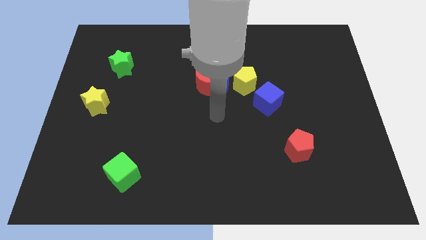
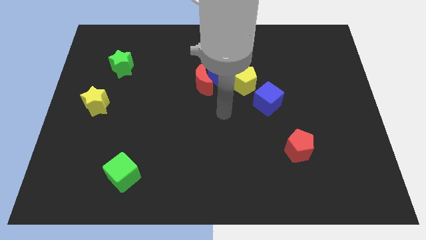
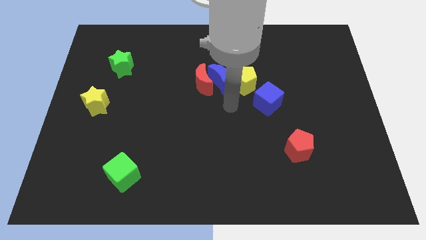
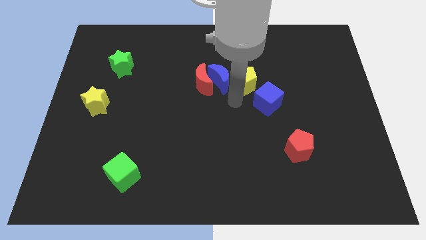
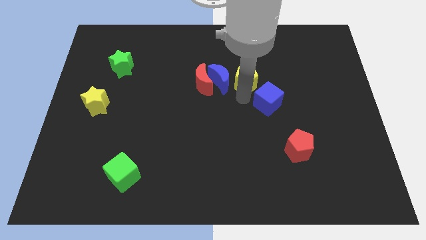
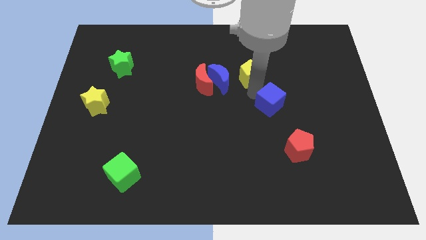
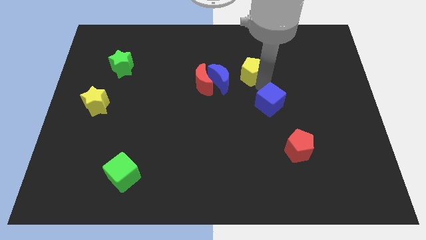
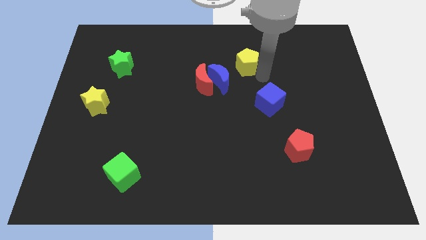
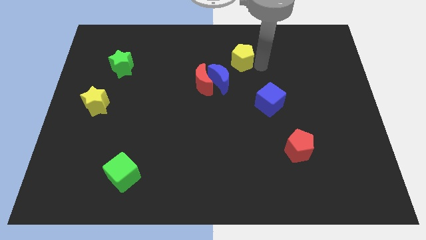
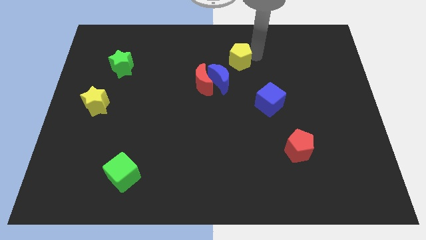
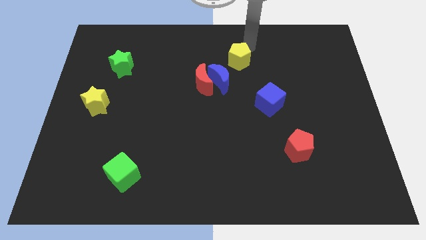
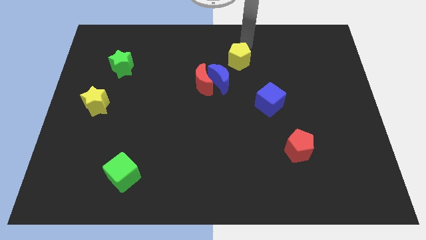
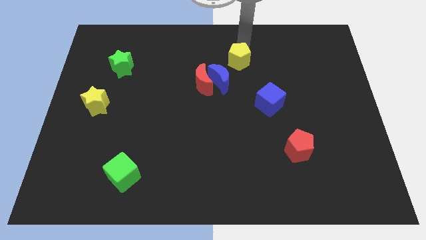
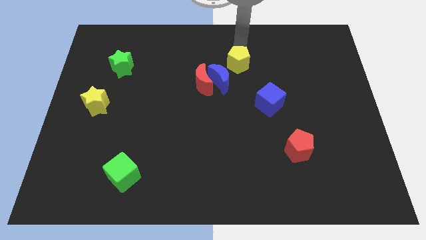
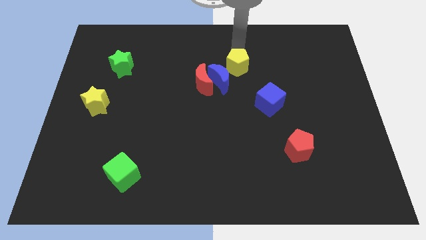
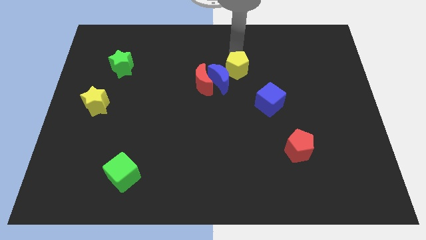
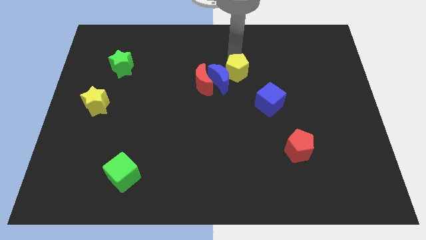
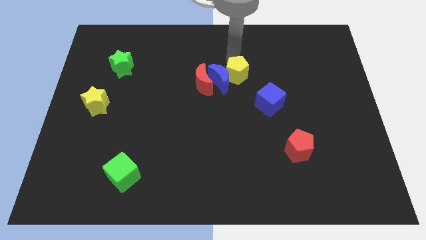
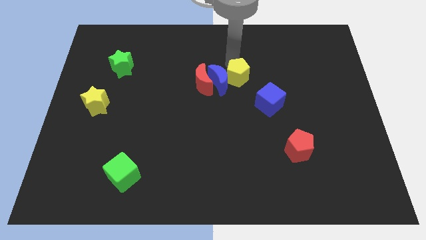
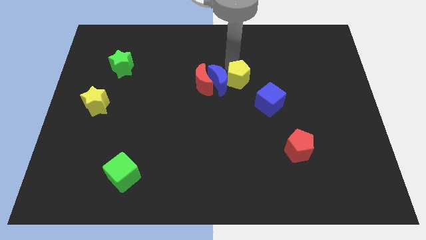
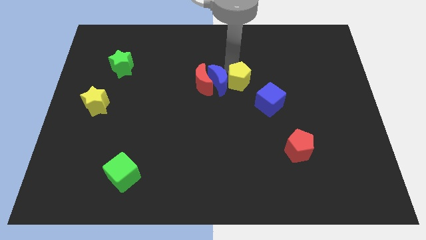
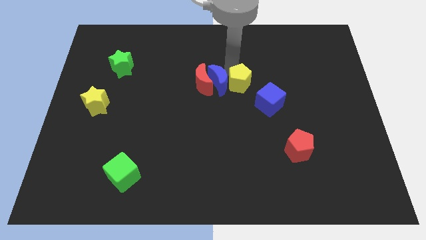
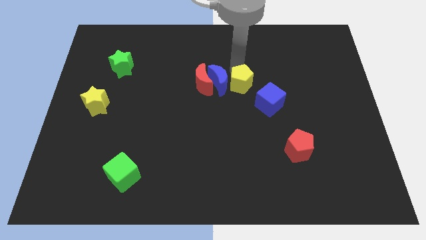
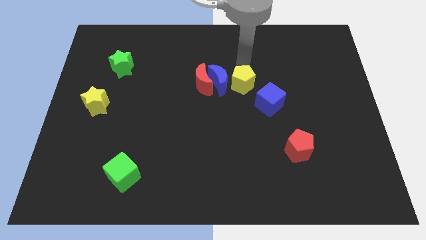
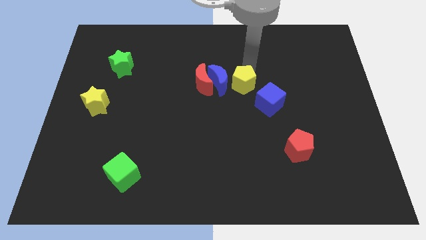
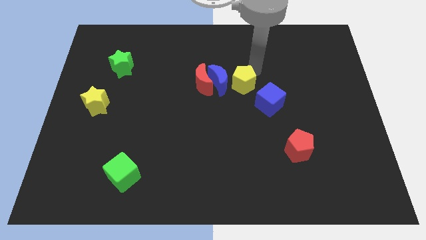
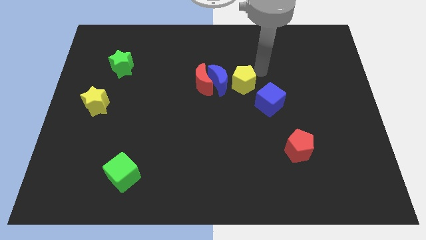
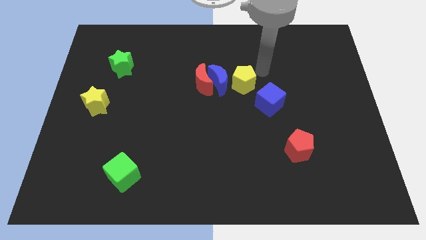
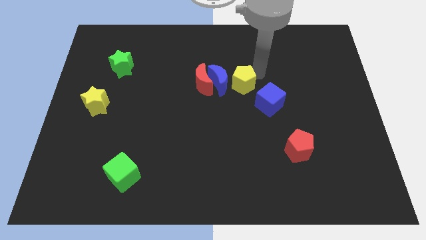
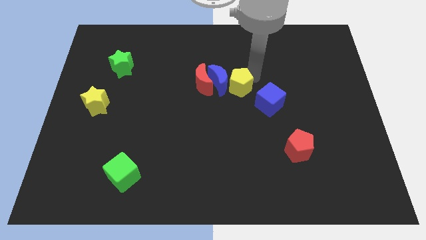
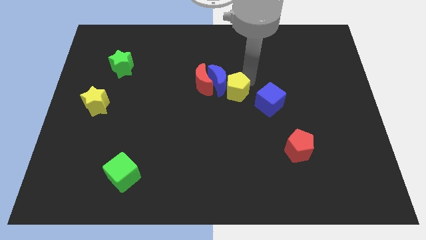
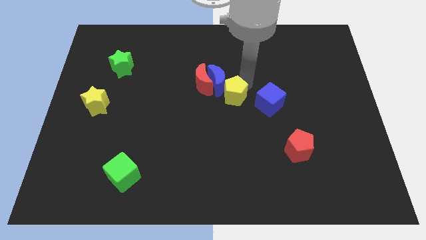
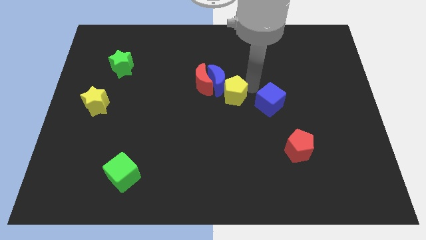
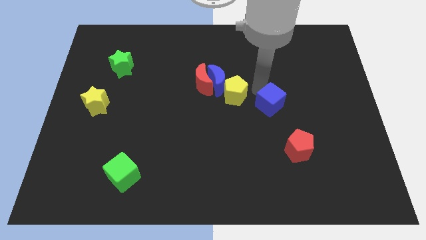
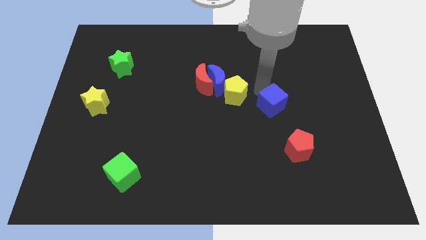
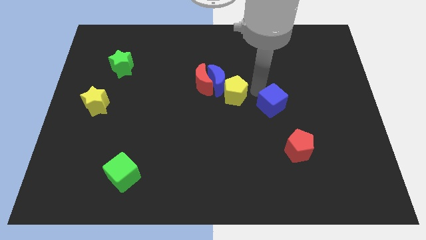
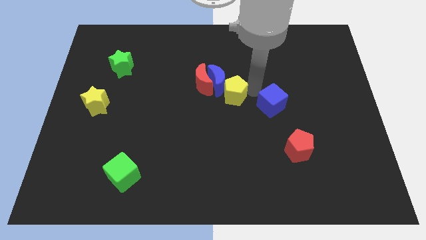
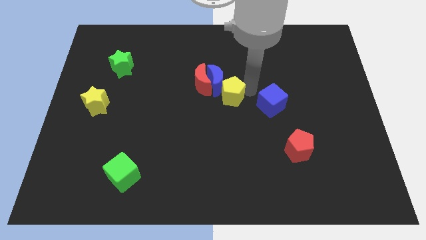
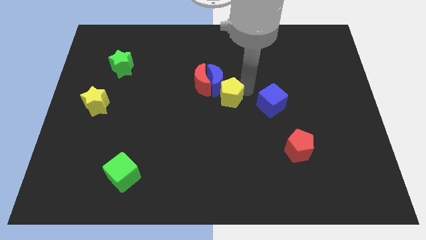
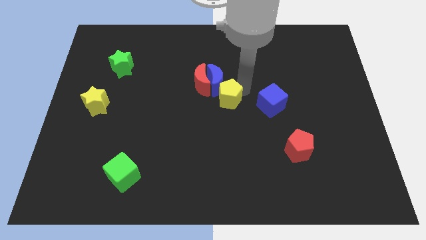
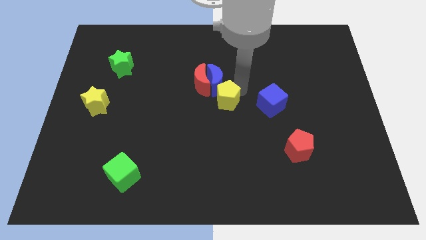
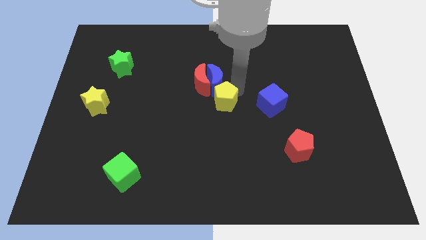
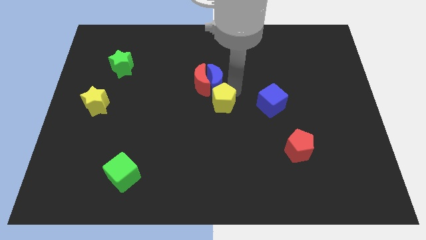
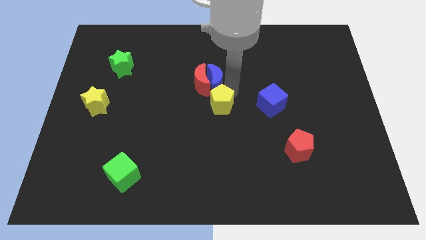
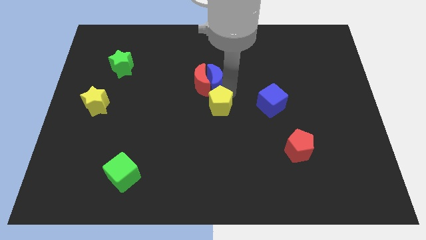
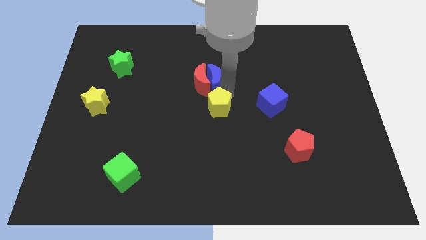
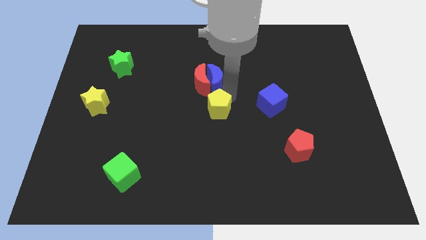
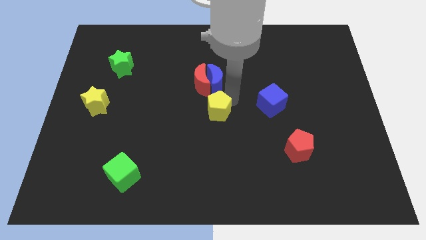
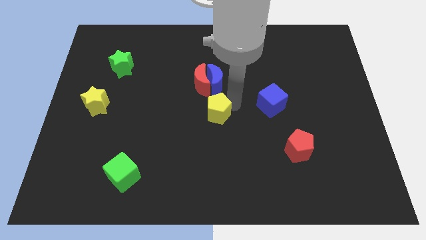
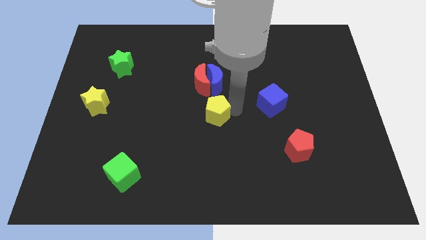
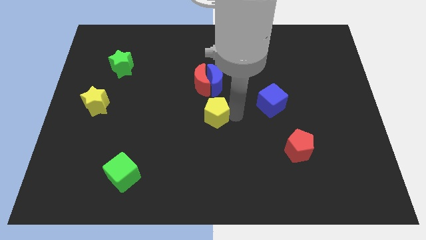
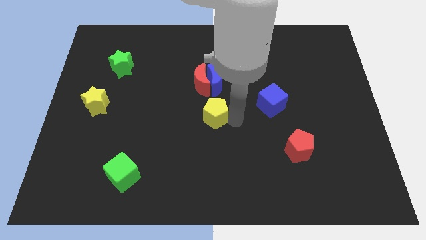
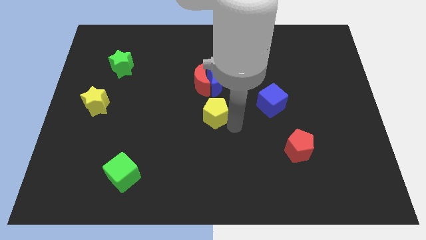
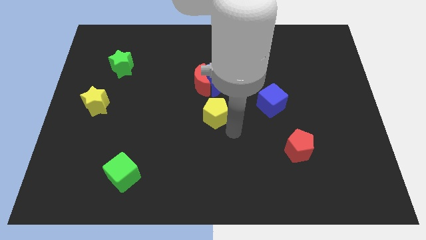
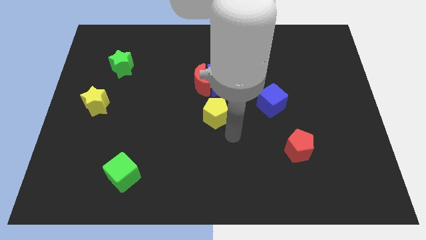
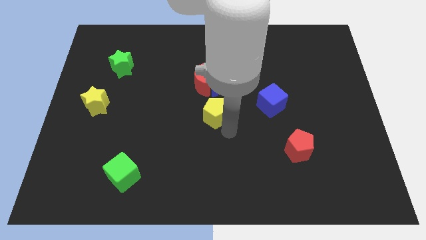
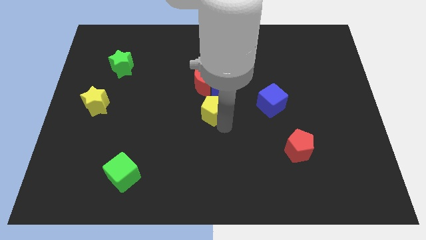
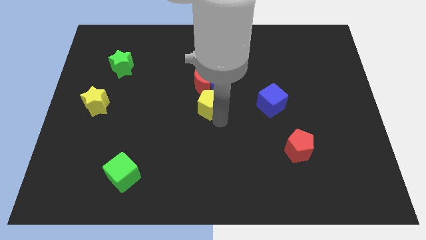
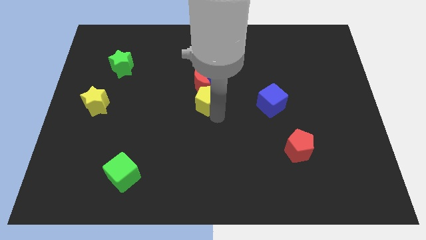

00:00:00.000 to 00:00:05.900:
slightly slide the yellow pentagon to the left

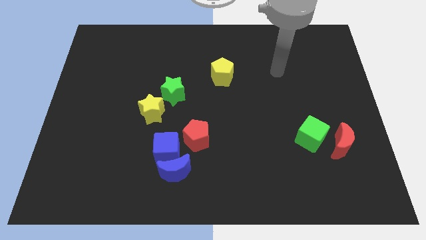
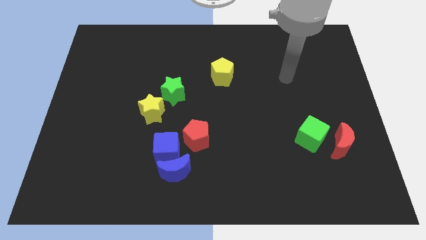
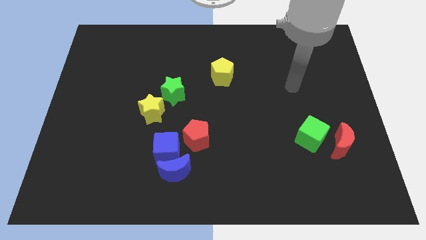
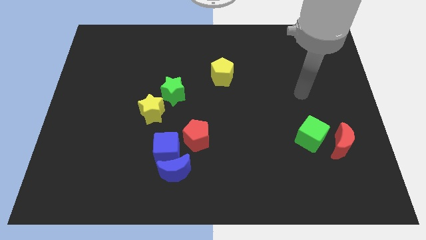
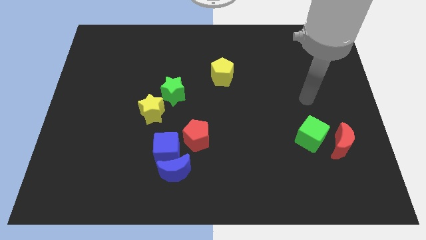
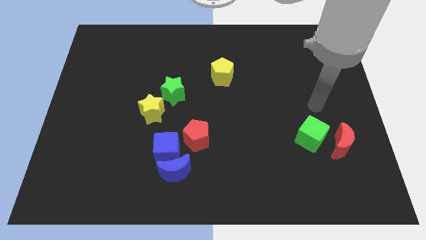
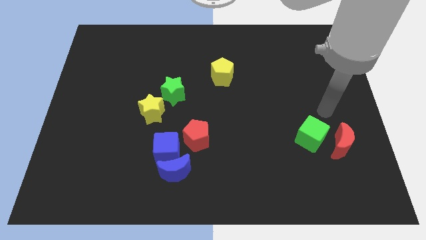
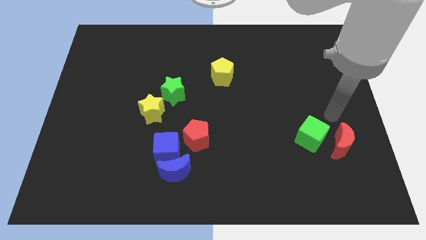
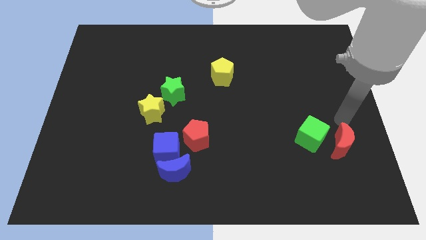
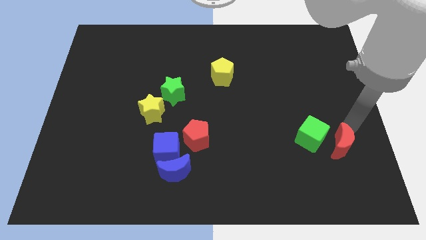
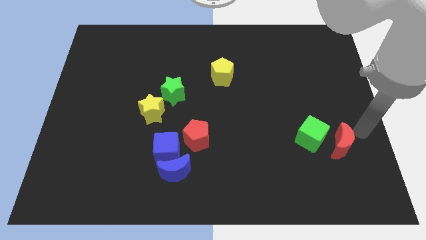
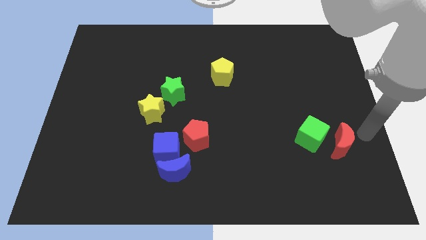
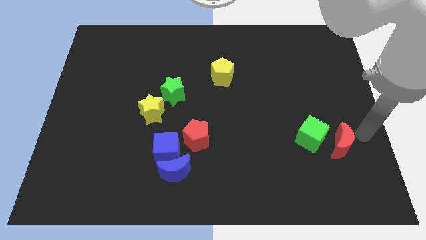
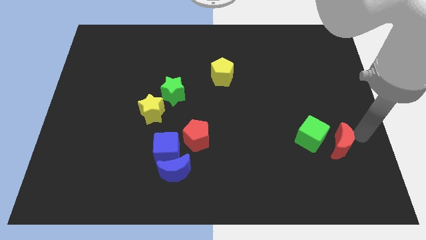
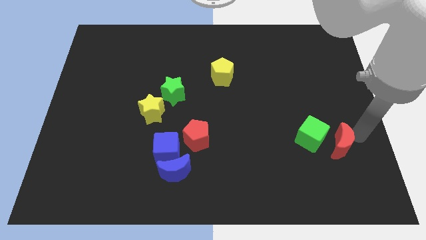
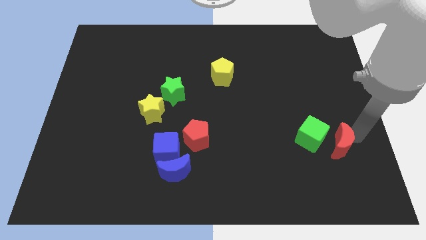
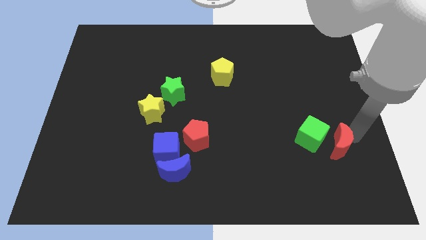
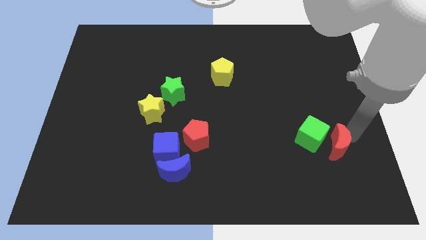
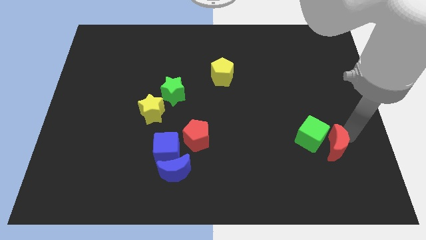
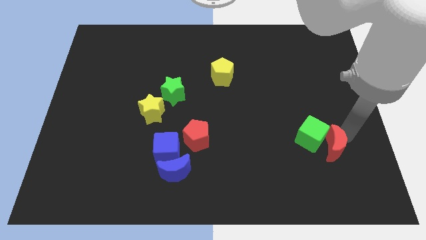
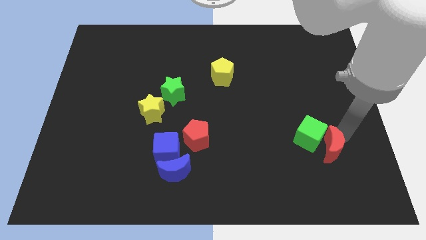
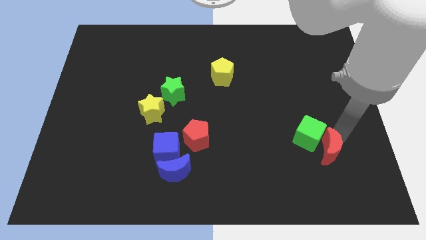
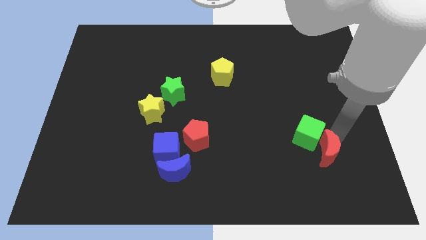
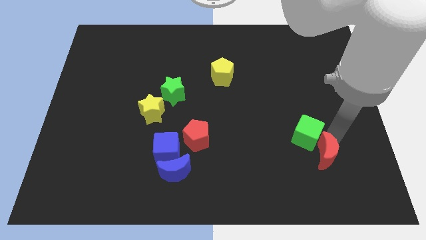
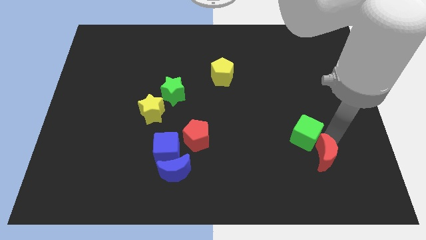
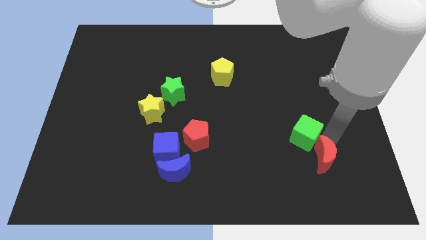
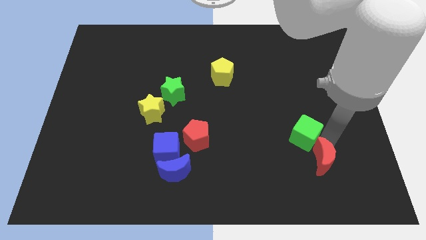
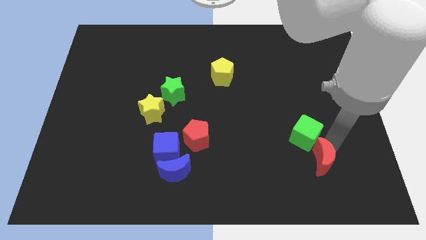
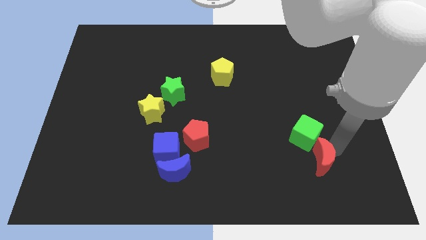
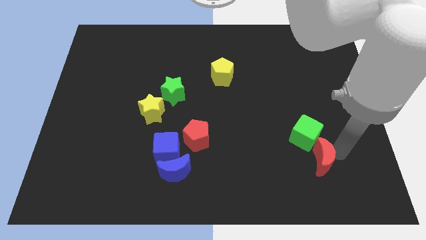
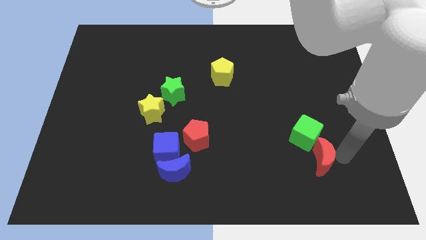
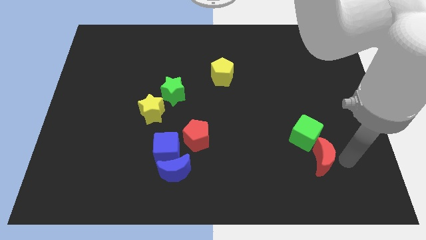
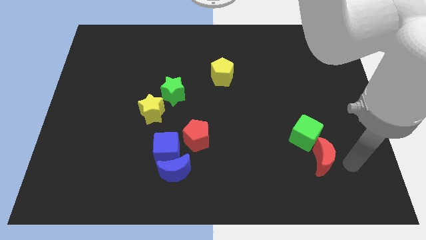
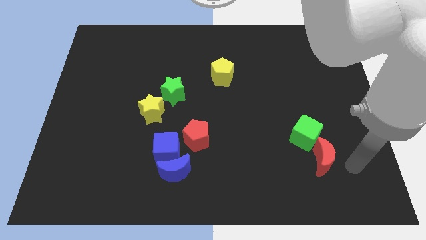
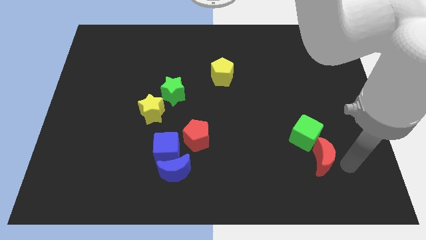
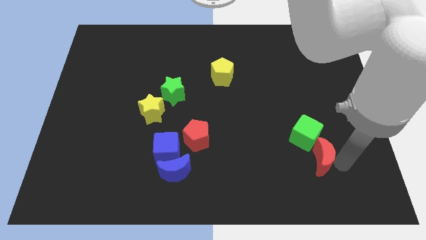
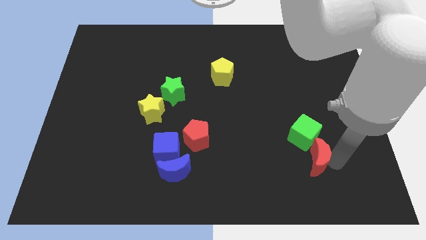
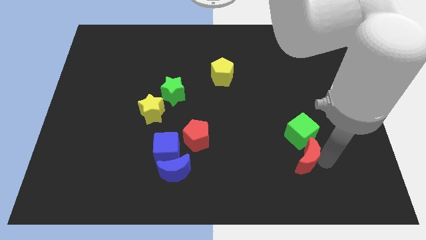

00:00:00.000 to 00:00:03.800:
slightly slide the red moon left
